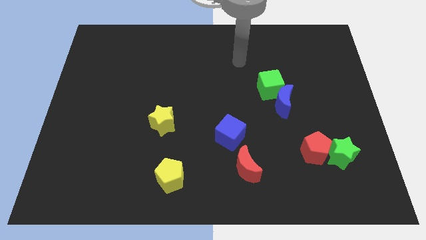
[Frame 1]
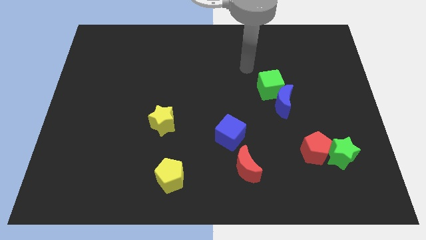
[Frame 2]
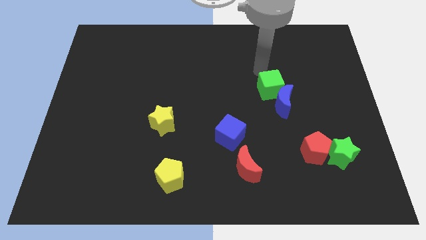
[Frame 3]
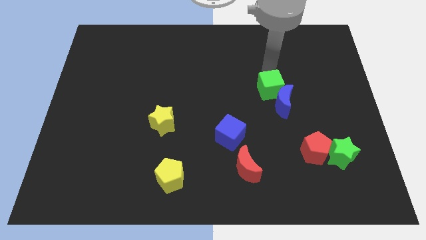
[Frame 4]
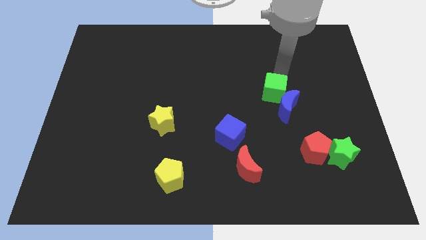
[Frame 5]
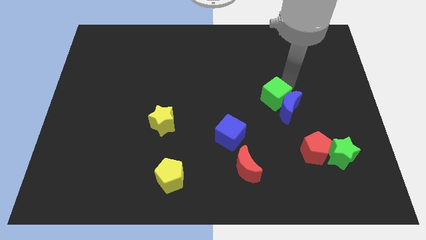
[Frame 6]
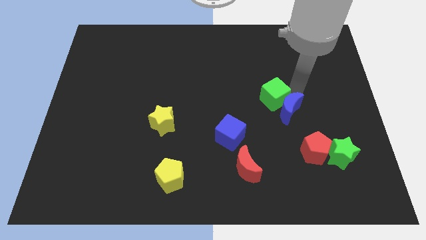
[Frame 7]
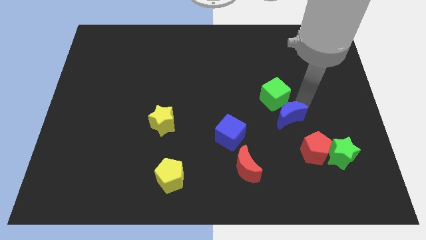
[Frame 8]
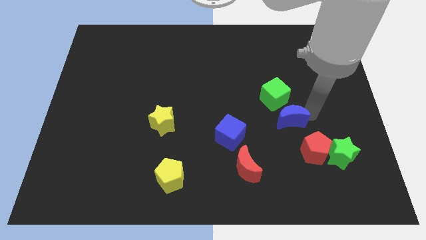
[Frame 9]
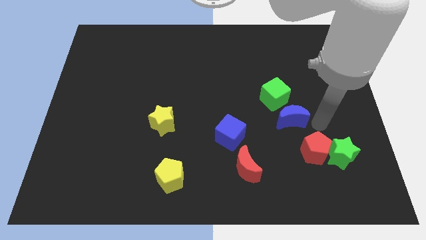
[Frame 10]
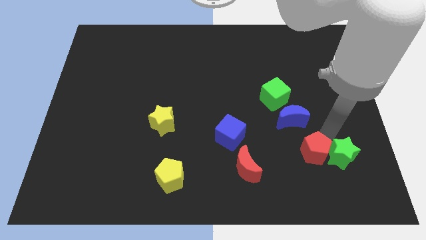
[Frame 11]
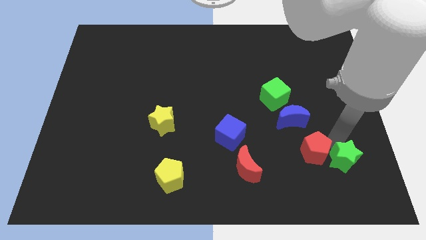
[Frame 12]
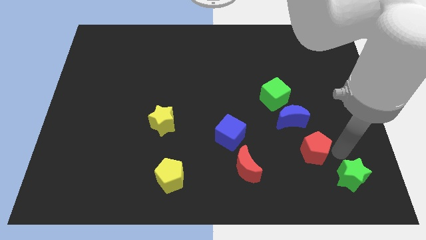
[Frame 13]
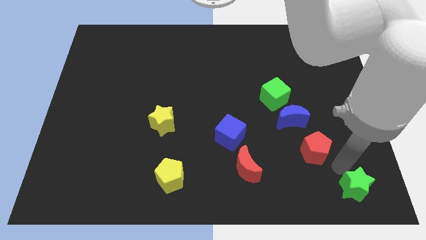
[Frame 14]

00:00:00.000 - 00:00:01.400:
move the red pentagon away from the green star

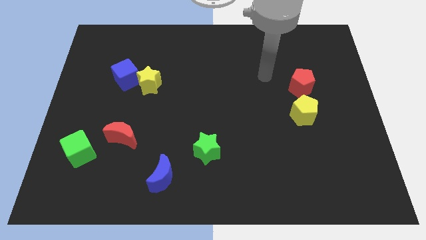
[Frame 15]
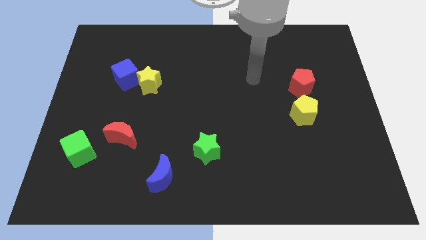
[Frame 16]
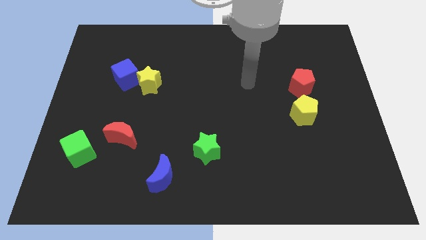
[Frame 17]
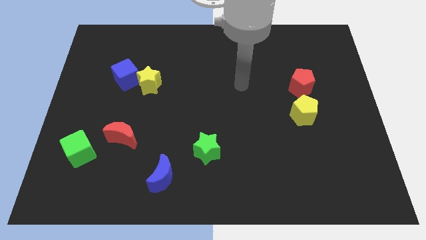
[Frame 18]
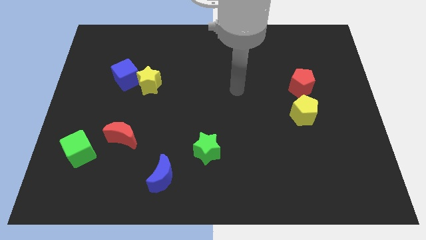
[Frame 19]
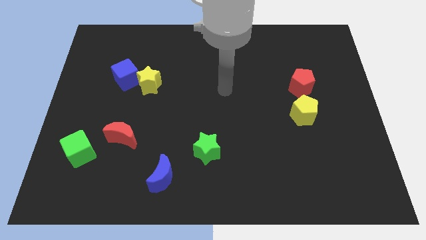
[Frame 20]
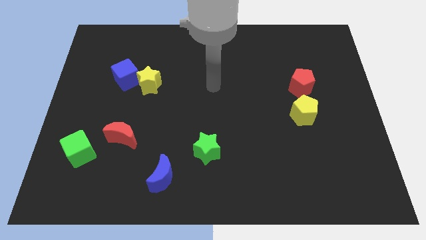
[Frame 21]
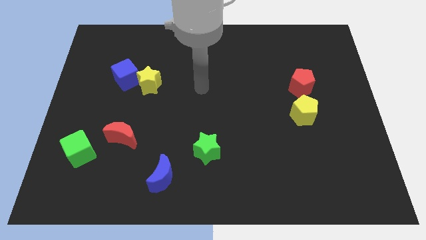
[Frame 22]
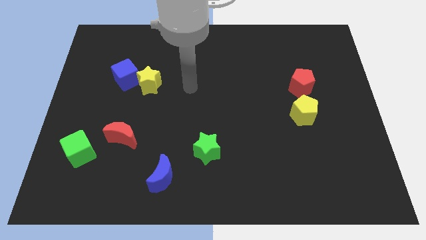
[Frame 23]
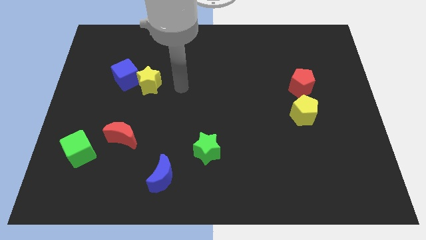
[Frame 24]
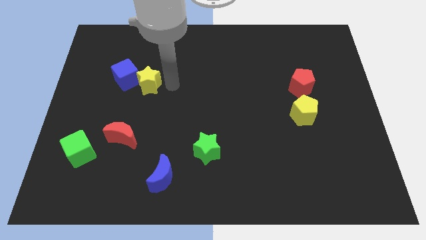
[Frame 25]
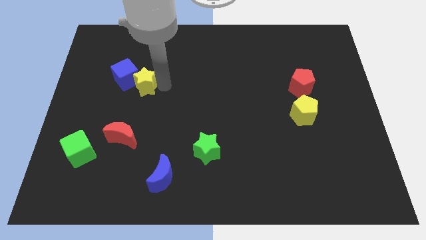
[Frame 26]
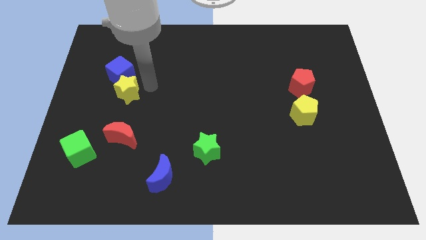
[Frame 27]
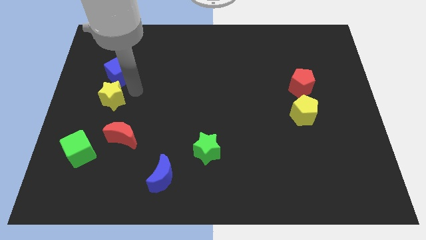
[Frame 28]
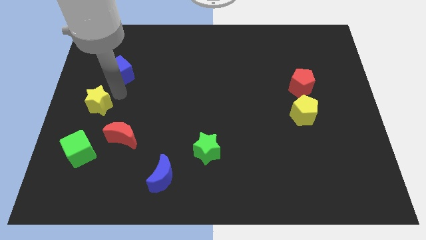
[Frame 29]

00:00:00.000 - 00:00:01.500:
move the blue cube away from the yellow star

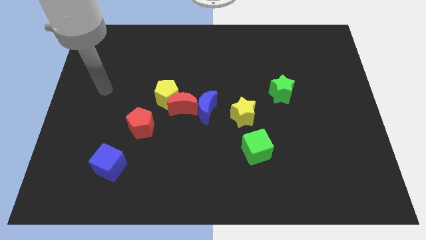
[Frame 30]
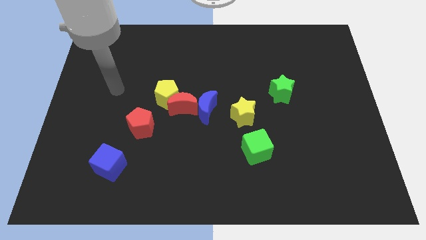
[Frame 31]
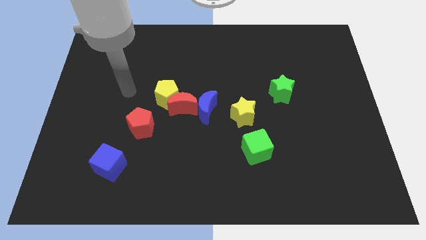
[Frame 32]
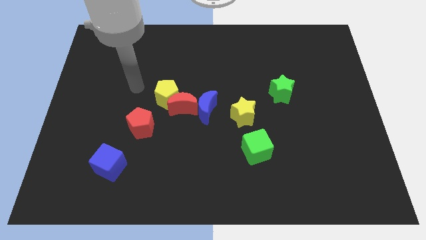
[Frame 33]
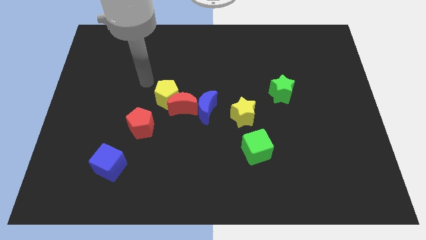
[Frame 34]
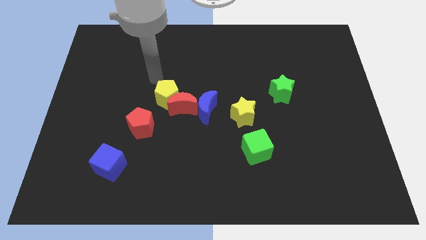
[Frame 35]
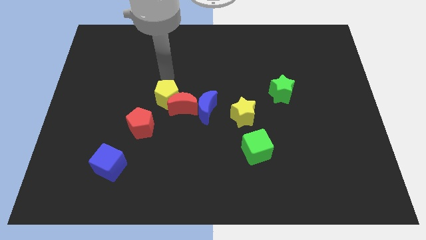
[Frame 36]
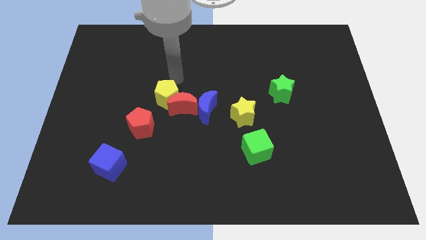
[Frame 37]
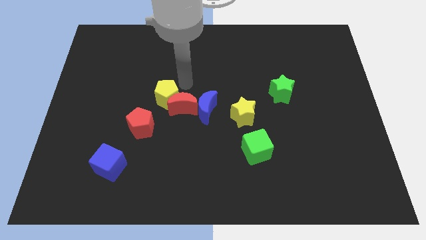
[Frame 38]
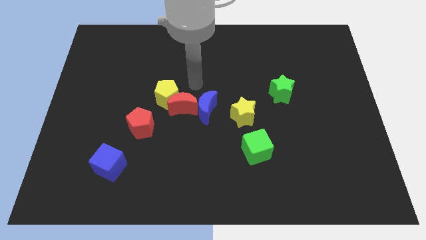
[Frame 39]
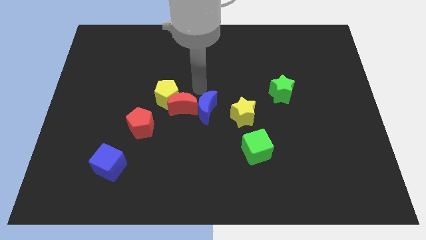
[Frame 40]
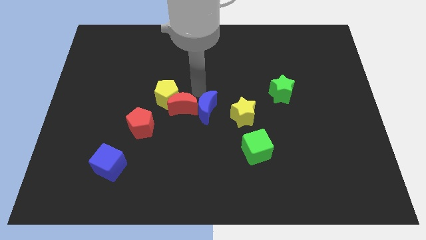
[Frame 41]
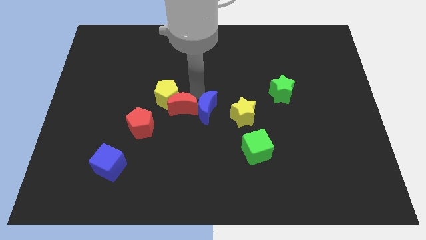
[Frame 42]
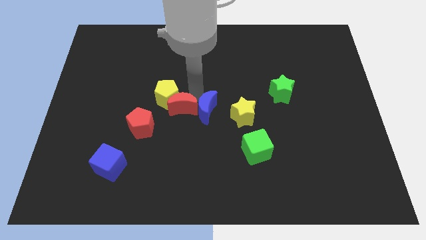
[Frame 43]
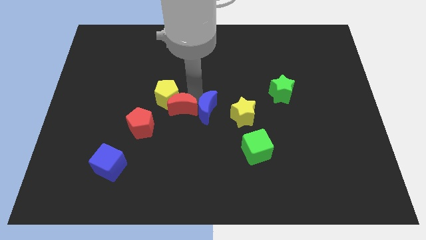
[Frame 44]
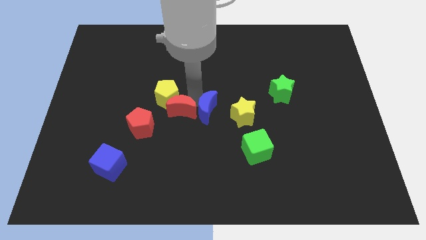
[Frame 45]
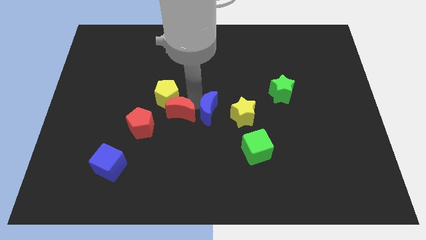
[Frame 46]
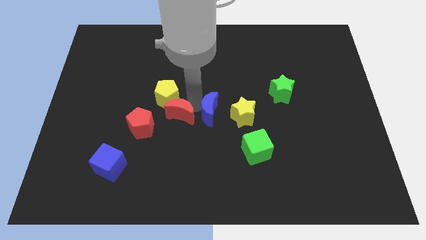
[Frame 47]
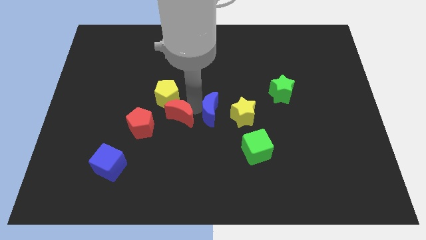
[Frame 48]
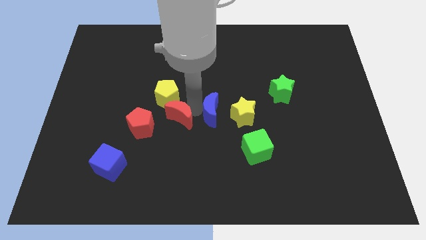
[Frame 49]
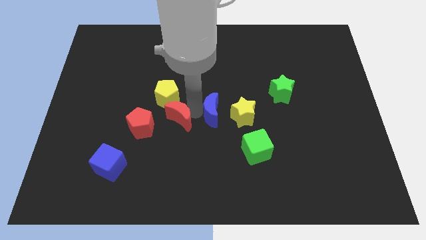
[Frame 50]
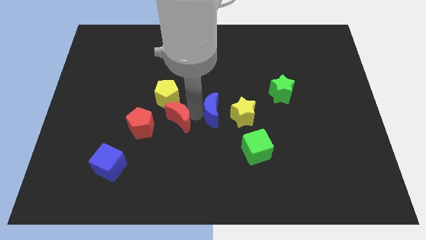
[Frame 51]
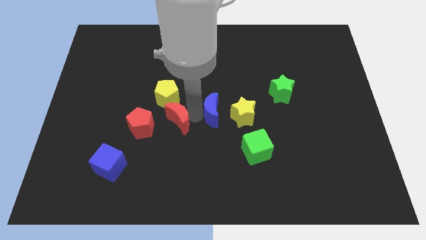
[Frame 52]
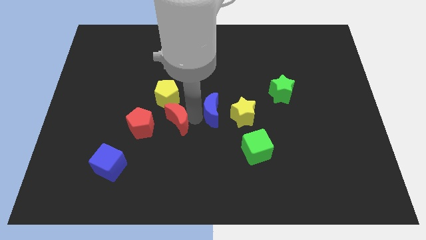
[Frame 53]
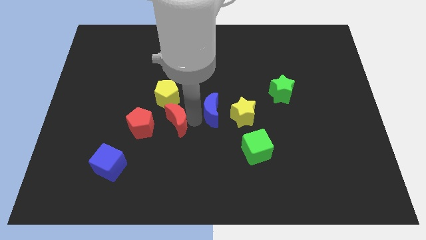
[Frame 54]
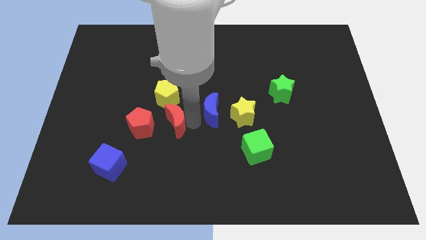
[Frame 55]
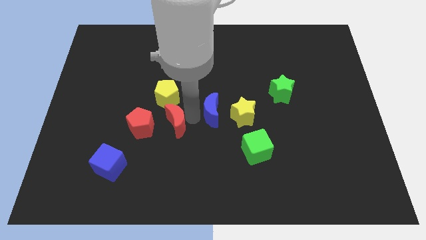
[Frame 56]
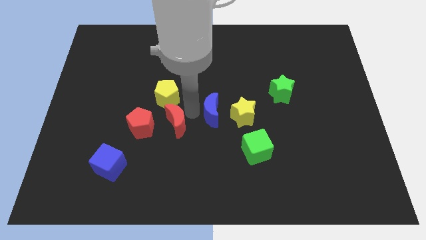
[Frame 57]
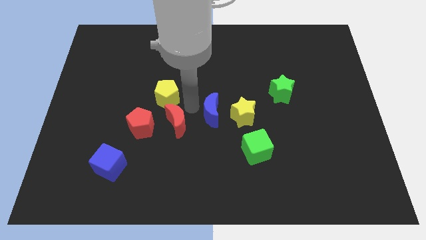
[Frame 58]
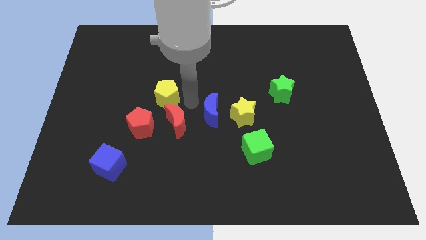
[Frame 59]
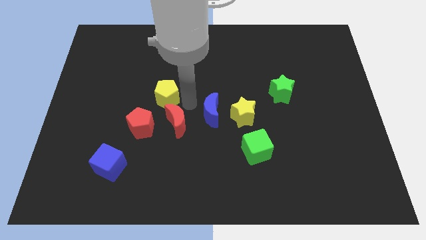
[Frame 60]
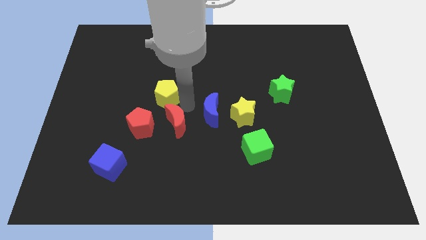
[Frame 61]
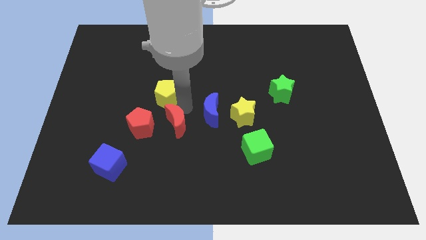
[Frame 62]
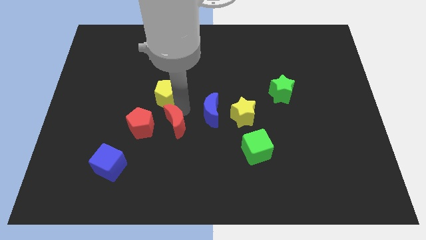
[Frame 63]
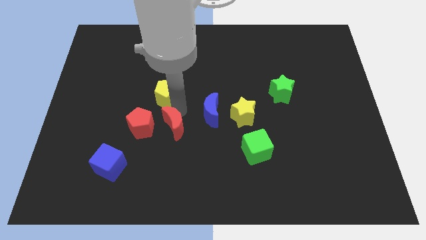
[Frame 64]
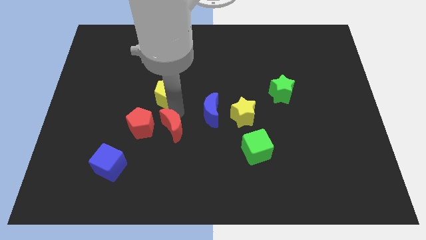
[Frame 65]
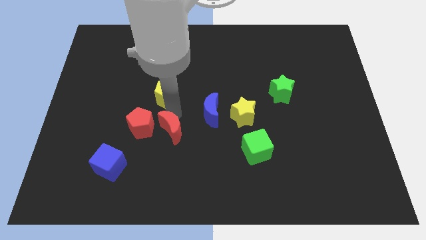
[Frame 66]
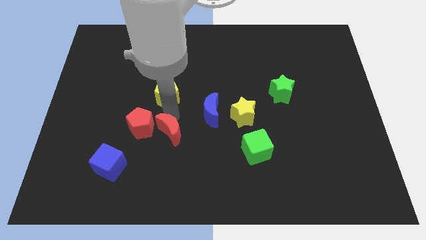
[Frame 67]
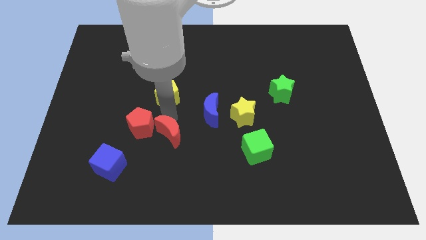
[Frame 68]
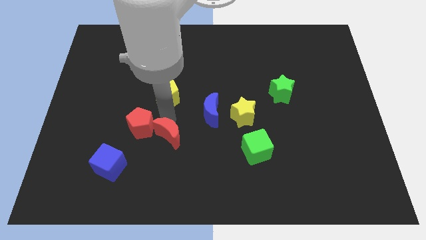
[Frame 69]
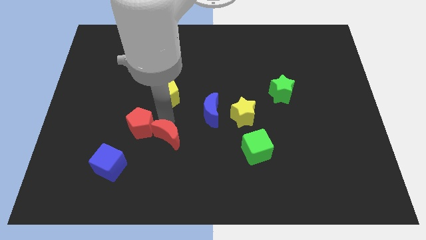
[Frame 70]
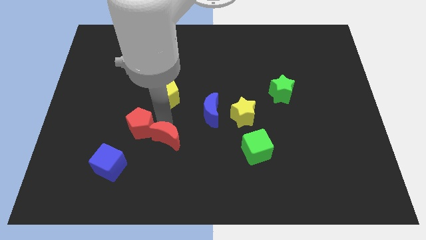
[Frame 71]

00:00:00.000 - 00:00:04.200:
move the red moon away from the yellow pentagon and blue moon

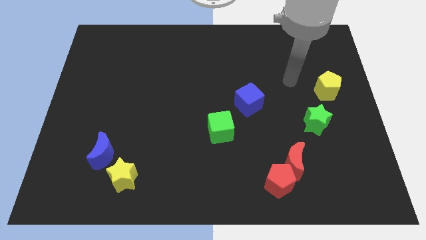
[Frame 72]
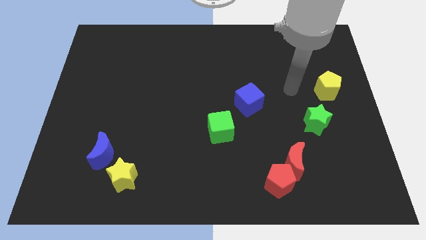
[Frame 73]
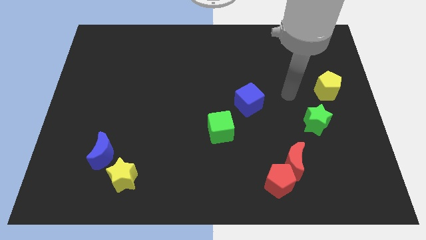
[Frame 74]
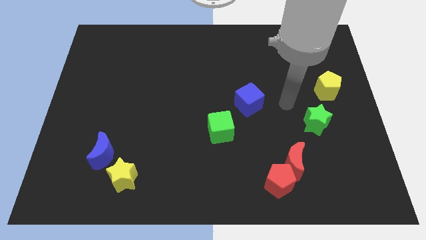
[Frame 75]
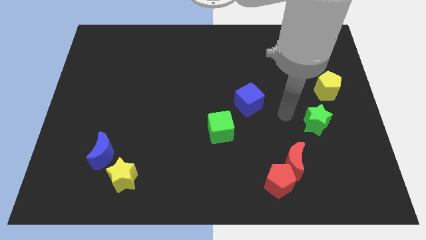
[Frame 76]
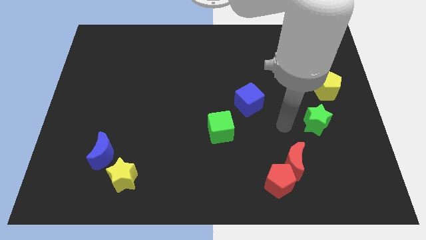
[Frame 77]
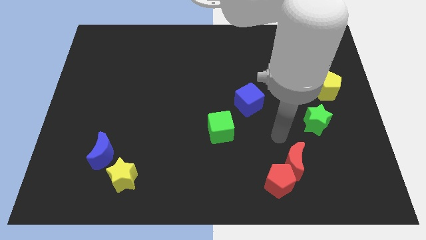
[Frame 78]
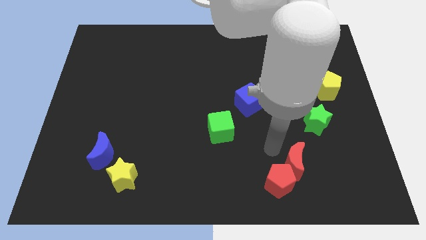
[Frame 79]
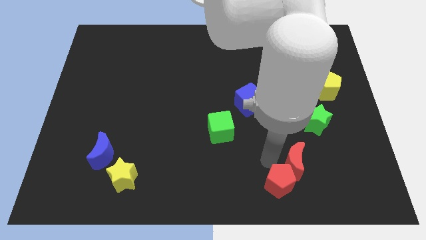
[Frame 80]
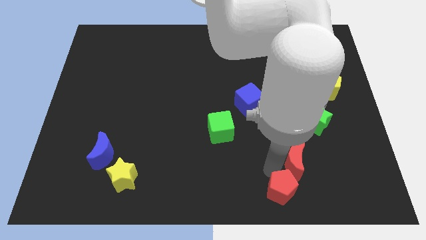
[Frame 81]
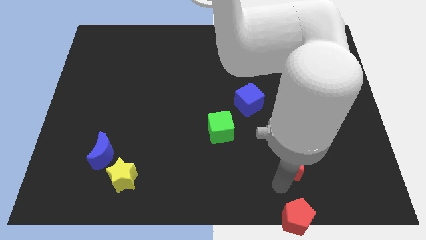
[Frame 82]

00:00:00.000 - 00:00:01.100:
separate the red moon from the red pentagon

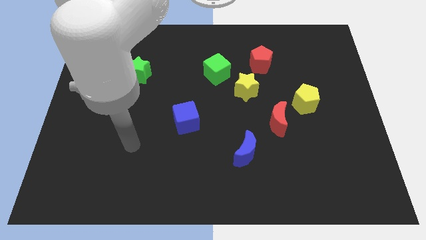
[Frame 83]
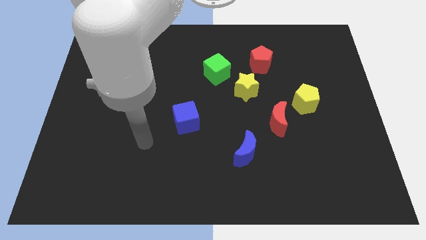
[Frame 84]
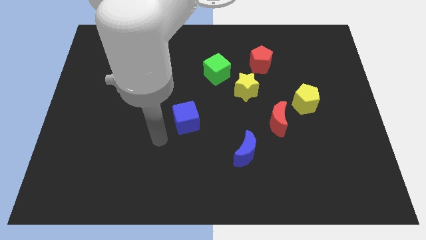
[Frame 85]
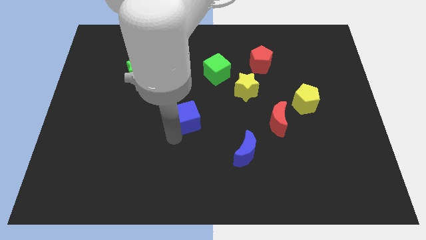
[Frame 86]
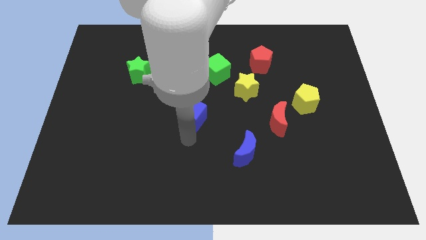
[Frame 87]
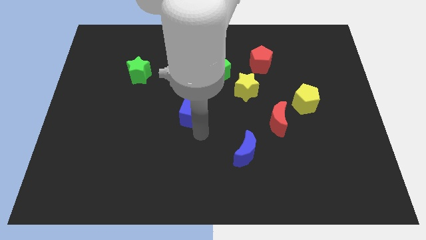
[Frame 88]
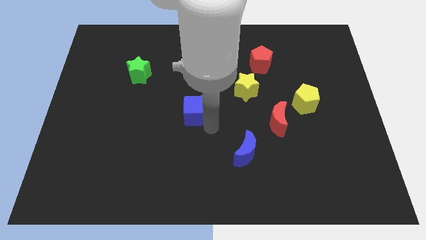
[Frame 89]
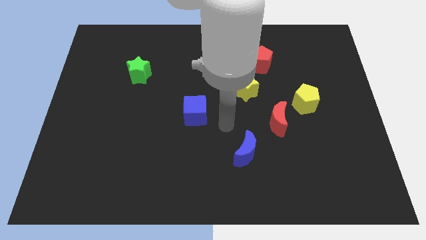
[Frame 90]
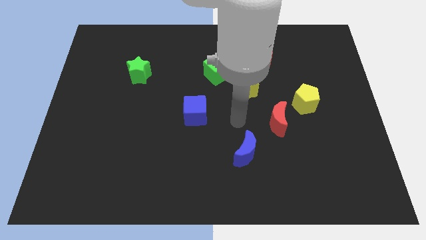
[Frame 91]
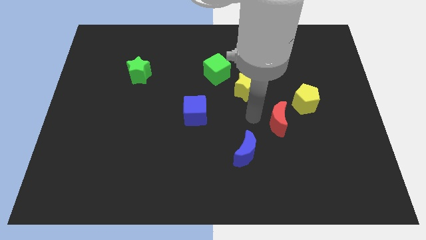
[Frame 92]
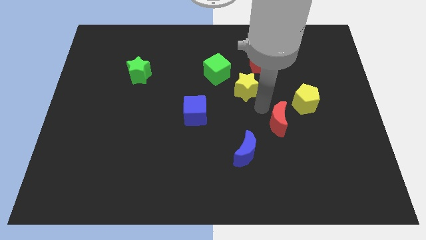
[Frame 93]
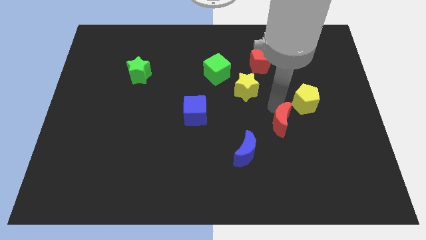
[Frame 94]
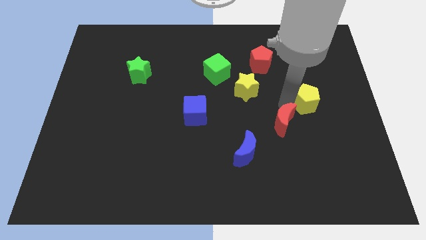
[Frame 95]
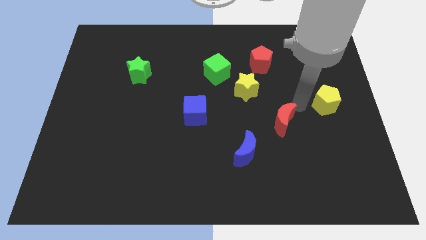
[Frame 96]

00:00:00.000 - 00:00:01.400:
pull the red moon apart from the yellow pentagon
